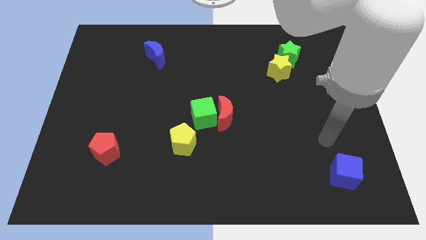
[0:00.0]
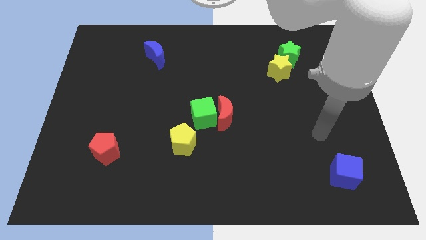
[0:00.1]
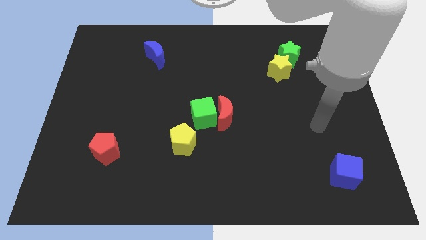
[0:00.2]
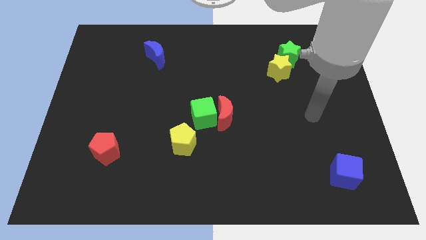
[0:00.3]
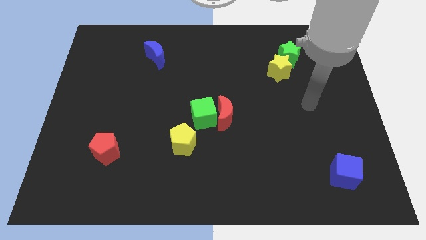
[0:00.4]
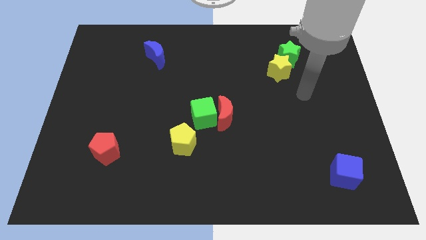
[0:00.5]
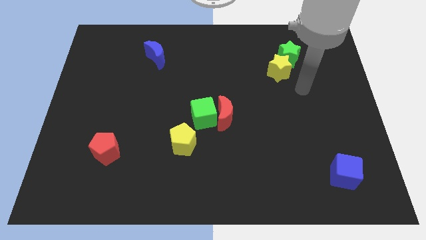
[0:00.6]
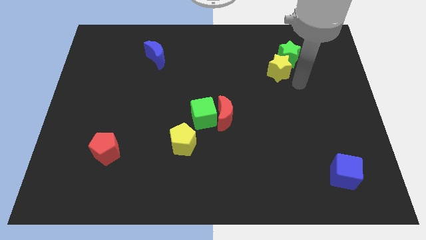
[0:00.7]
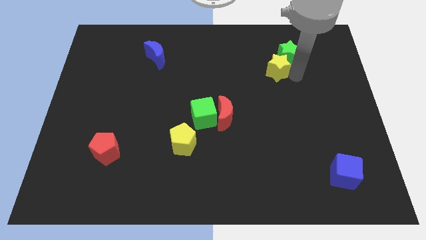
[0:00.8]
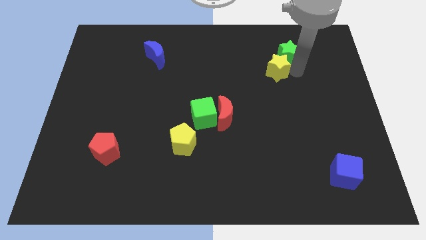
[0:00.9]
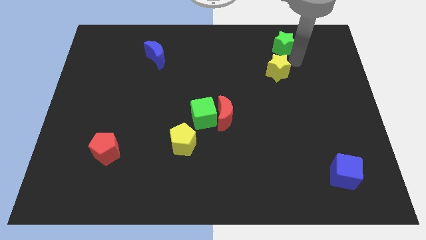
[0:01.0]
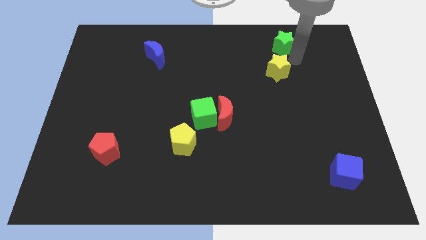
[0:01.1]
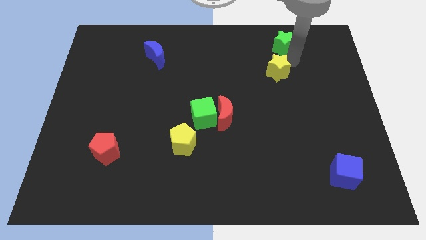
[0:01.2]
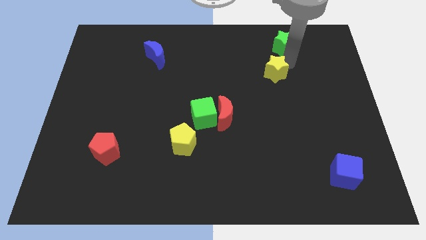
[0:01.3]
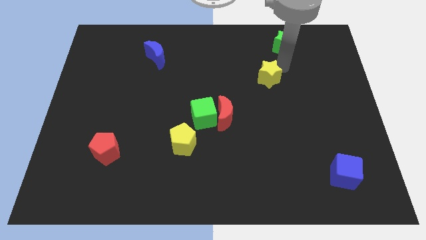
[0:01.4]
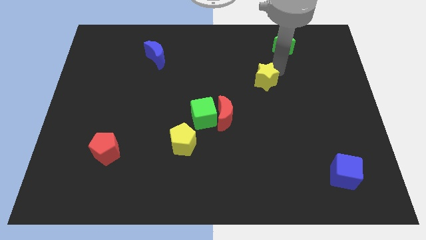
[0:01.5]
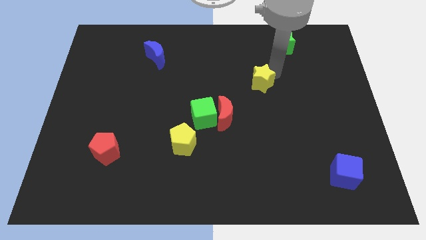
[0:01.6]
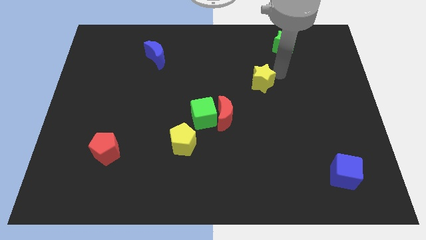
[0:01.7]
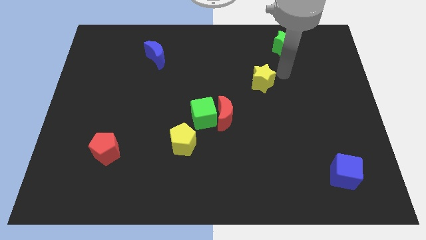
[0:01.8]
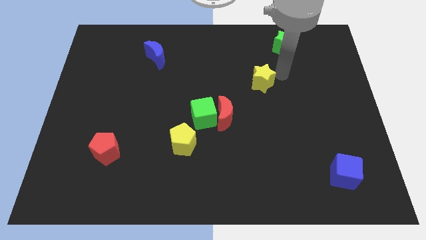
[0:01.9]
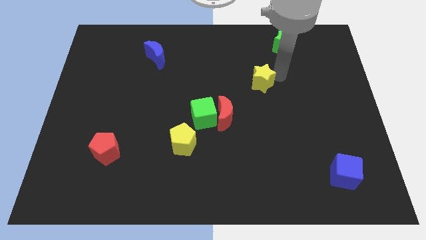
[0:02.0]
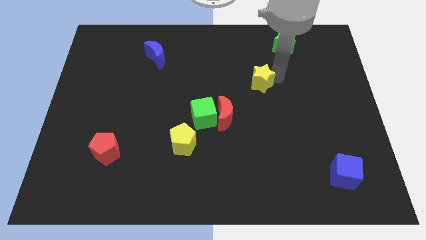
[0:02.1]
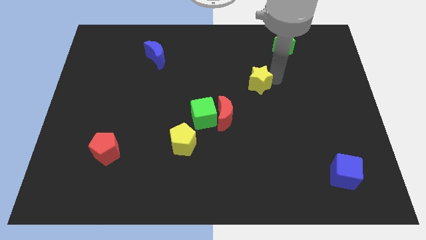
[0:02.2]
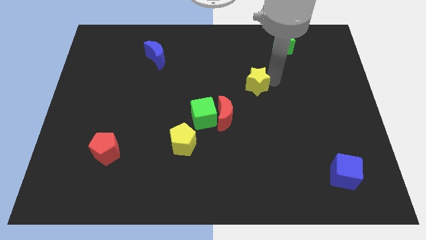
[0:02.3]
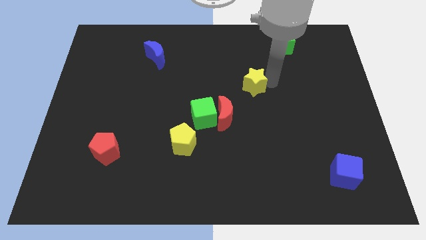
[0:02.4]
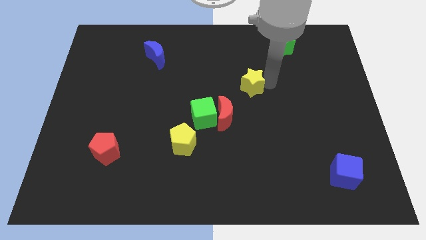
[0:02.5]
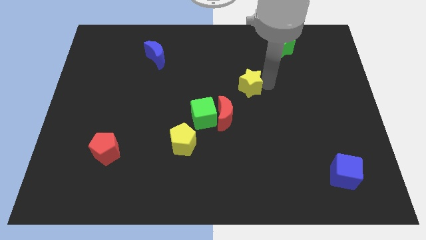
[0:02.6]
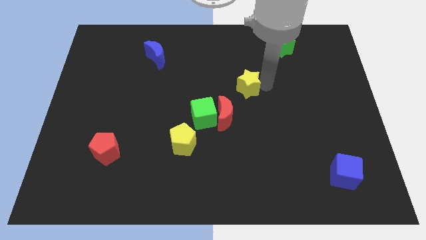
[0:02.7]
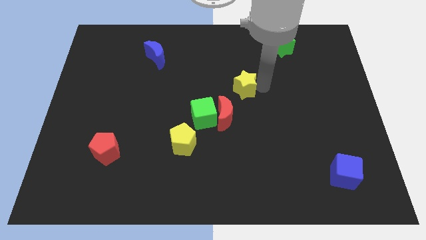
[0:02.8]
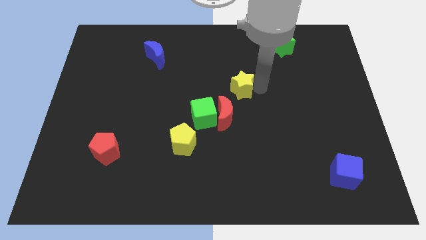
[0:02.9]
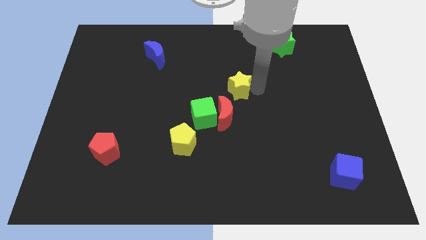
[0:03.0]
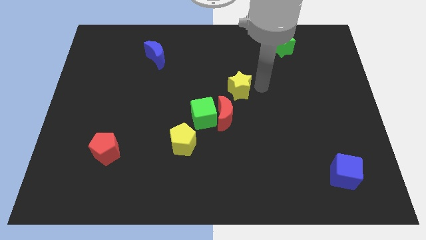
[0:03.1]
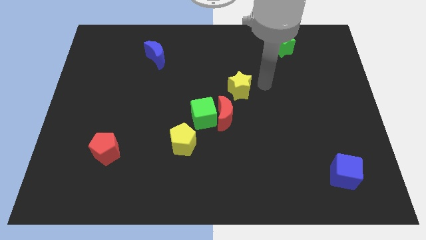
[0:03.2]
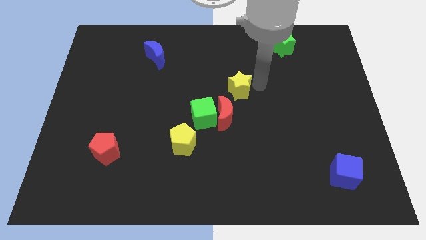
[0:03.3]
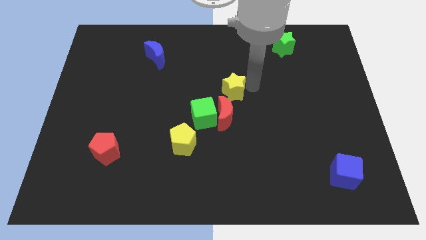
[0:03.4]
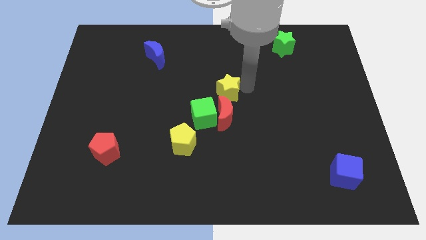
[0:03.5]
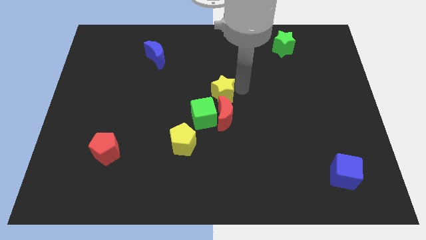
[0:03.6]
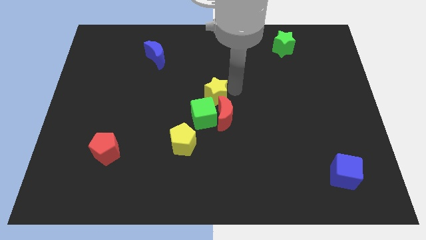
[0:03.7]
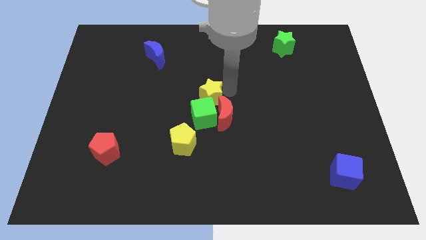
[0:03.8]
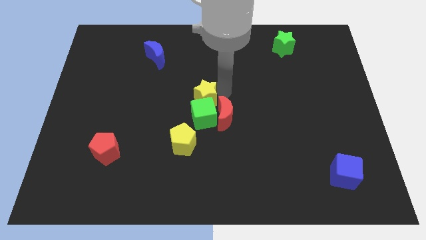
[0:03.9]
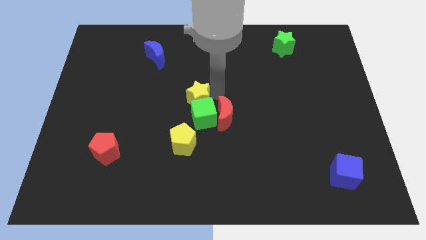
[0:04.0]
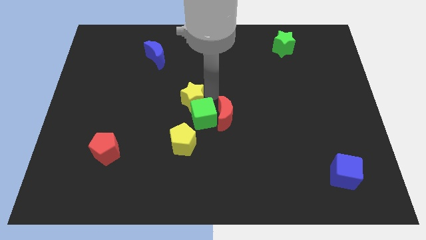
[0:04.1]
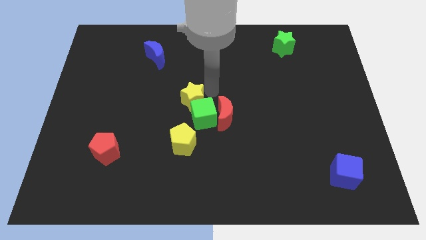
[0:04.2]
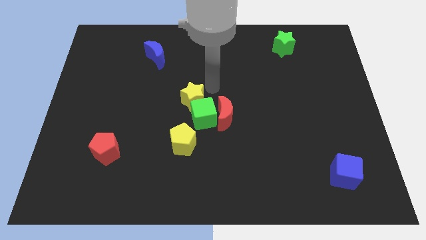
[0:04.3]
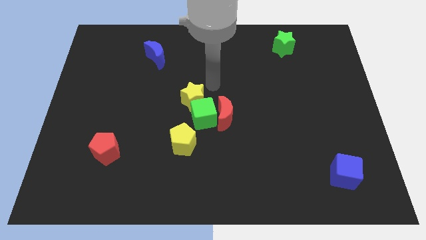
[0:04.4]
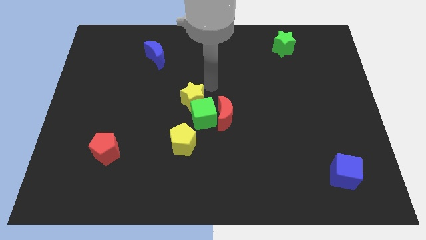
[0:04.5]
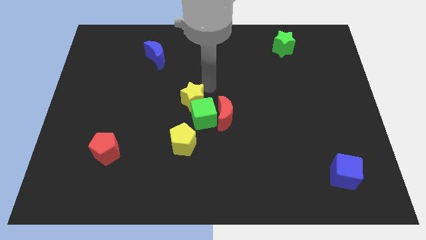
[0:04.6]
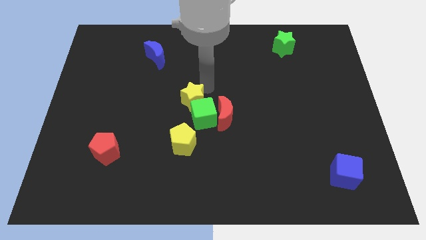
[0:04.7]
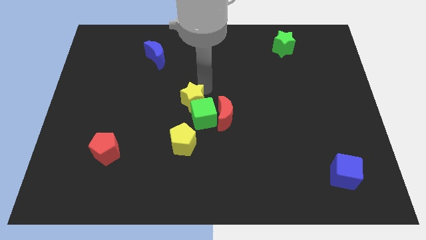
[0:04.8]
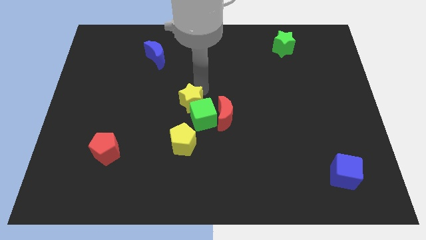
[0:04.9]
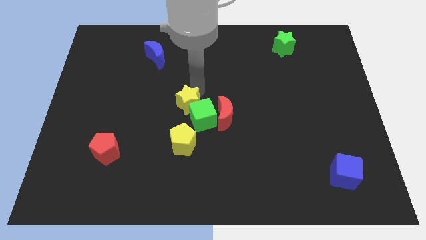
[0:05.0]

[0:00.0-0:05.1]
push the yellow star left of the green cube

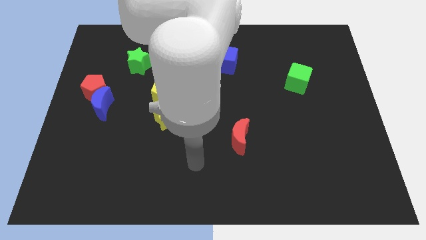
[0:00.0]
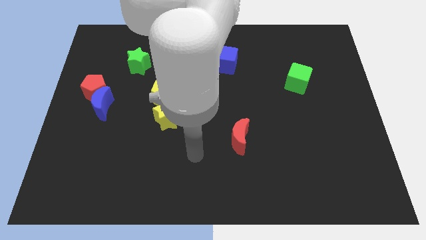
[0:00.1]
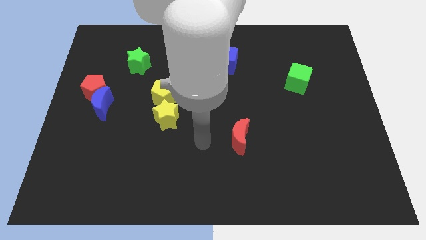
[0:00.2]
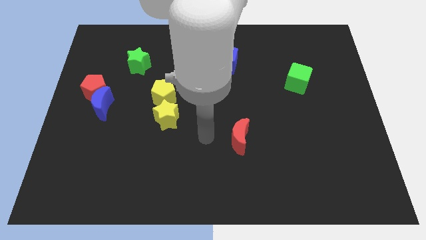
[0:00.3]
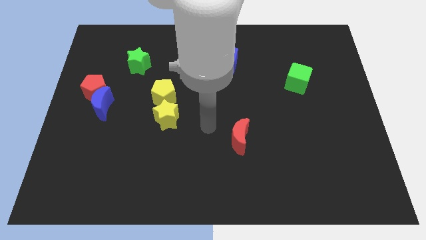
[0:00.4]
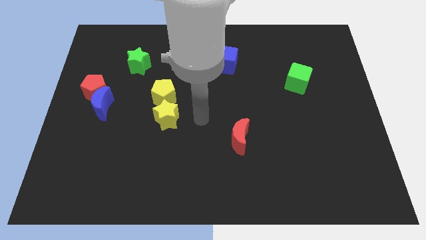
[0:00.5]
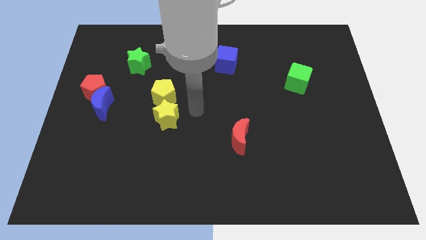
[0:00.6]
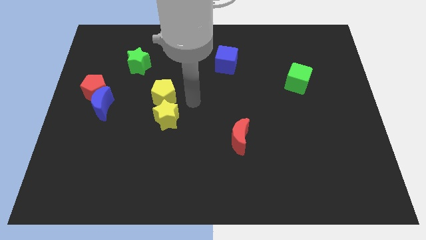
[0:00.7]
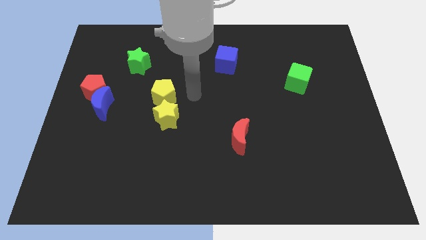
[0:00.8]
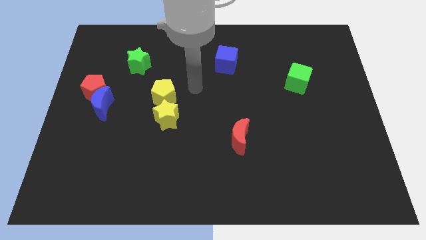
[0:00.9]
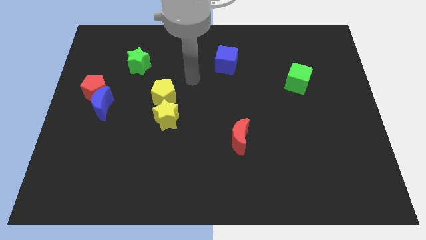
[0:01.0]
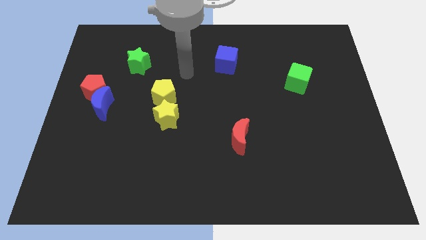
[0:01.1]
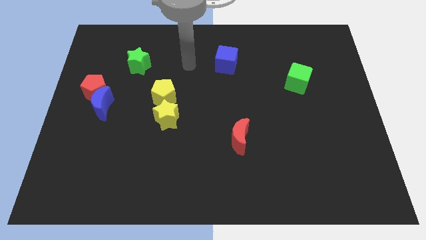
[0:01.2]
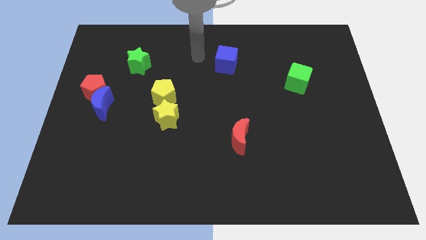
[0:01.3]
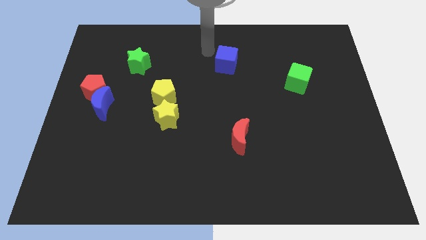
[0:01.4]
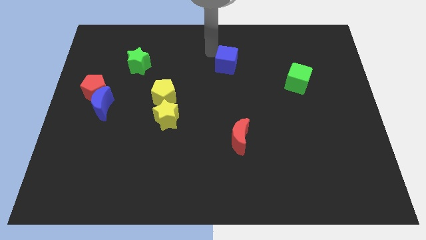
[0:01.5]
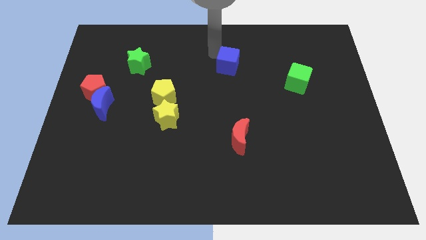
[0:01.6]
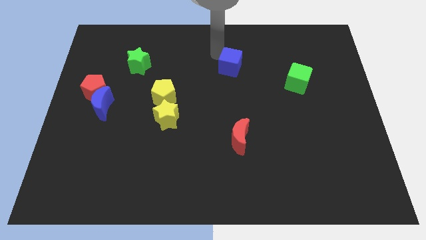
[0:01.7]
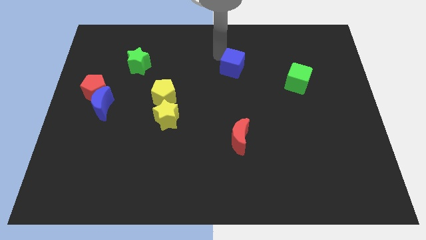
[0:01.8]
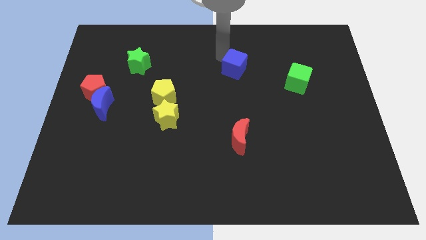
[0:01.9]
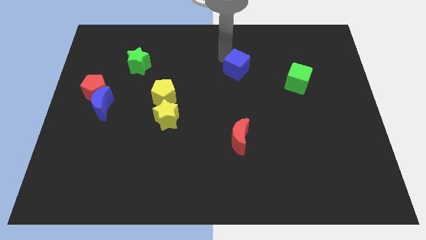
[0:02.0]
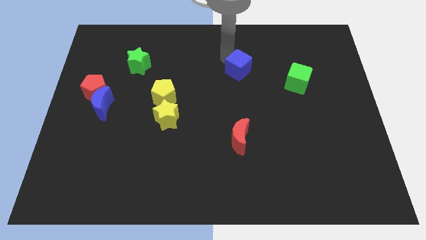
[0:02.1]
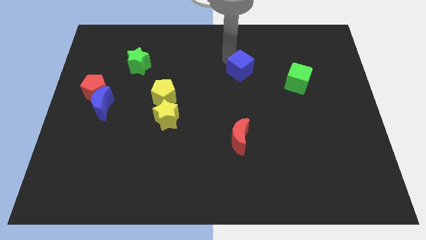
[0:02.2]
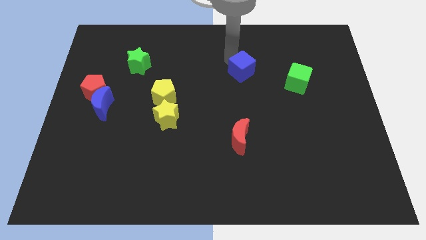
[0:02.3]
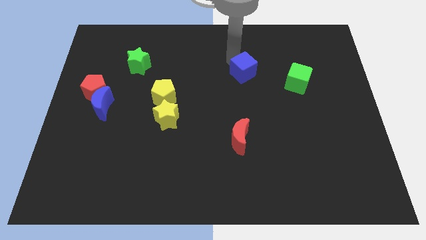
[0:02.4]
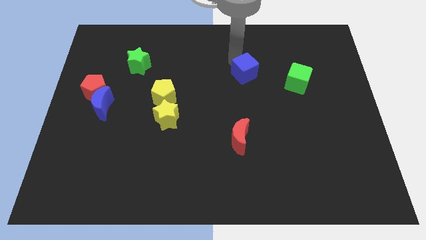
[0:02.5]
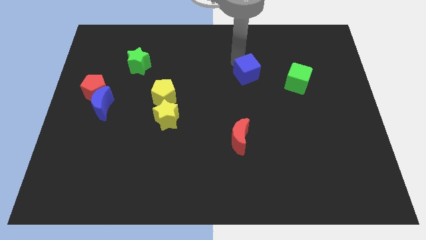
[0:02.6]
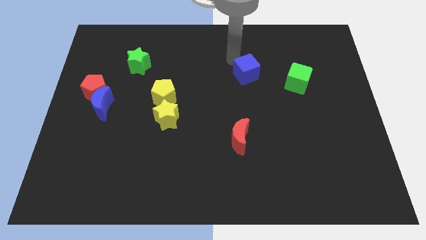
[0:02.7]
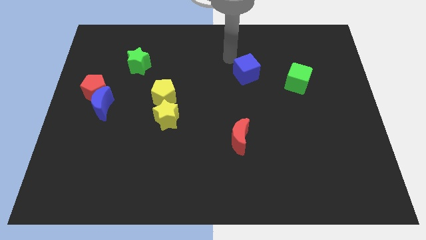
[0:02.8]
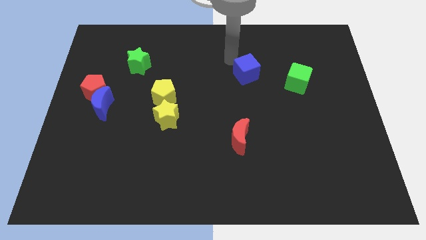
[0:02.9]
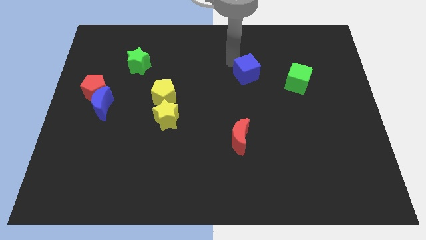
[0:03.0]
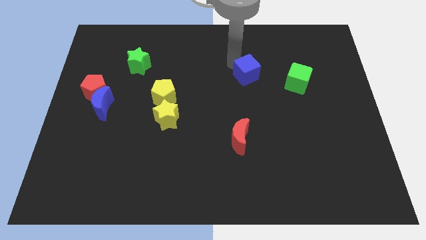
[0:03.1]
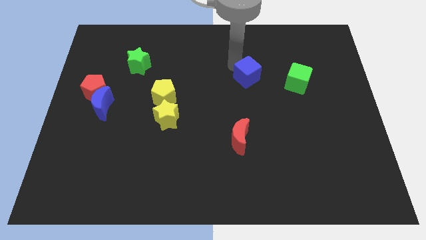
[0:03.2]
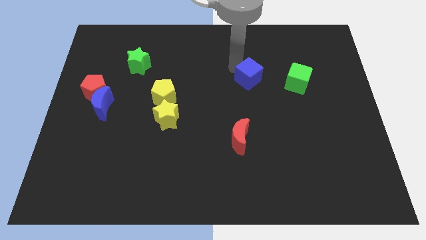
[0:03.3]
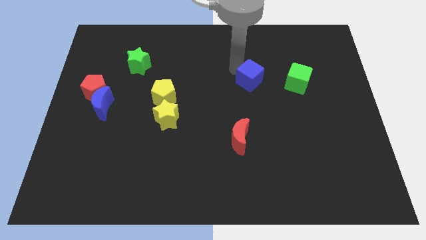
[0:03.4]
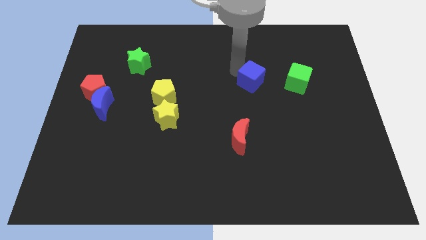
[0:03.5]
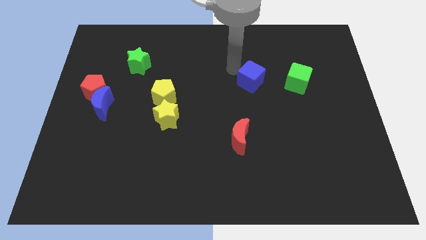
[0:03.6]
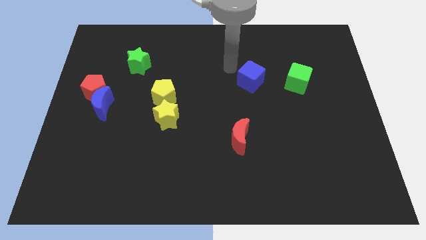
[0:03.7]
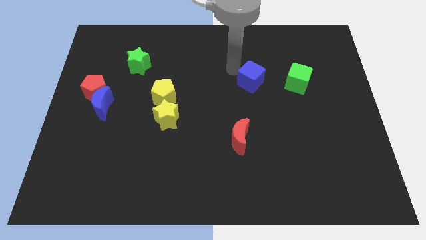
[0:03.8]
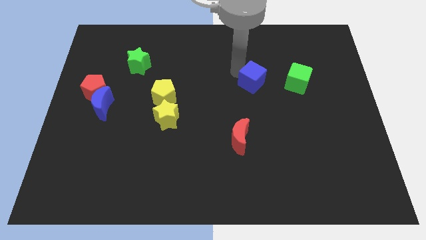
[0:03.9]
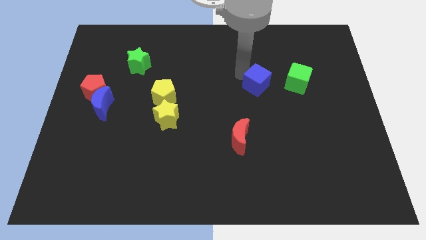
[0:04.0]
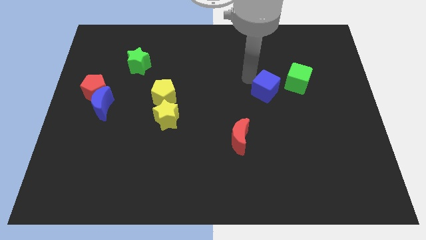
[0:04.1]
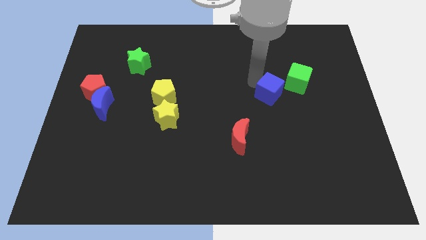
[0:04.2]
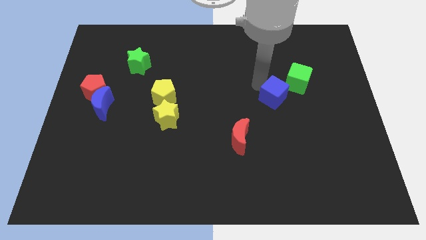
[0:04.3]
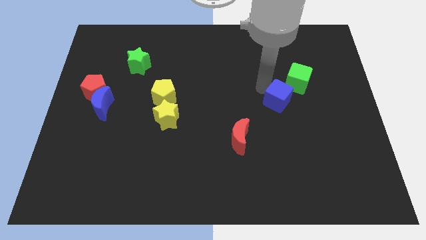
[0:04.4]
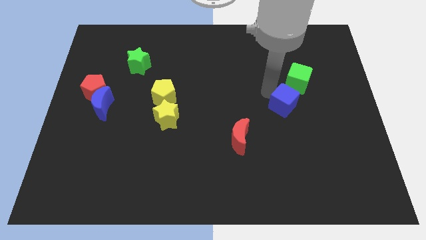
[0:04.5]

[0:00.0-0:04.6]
put the blue cube below the green cube
